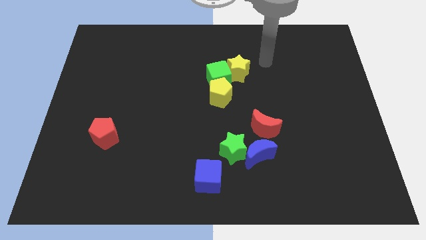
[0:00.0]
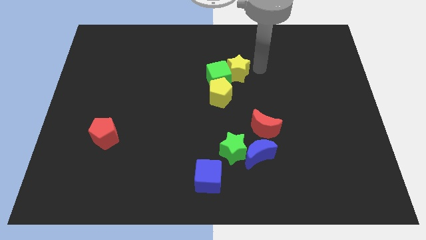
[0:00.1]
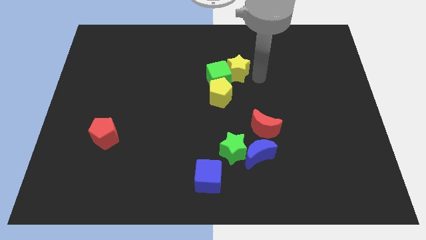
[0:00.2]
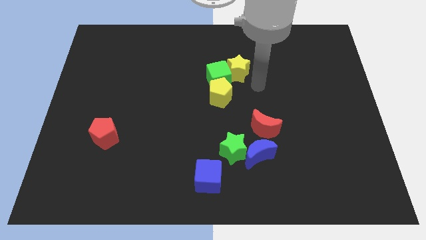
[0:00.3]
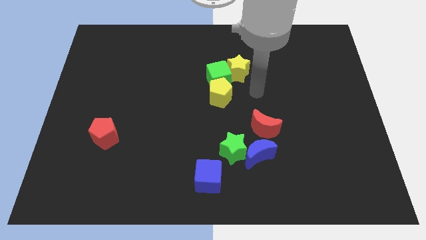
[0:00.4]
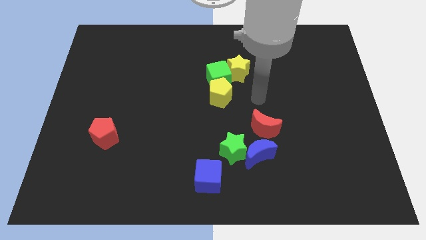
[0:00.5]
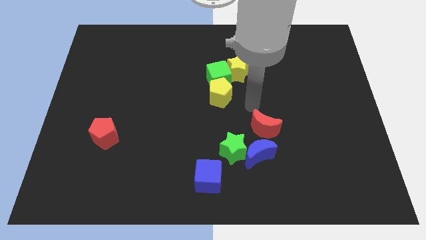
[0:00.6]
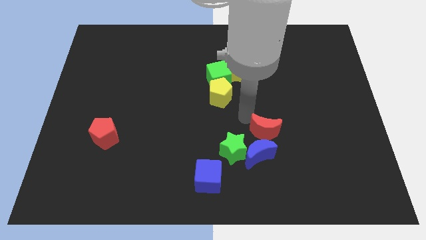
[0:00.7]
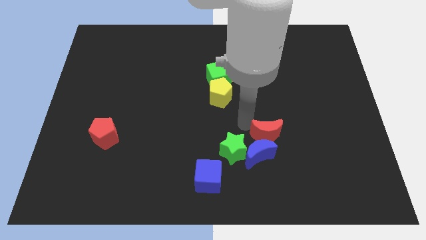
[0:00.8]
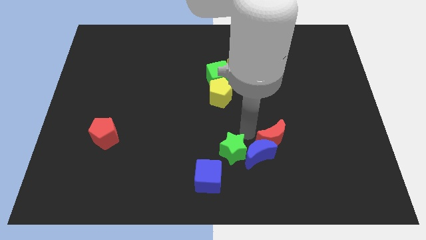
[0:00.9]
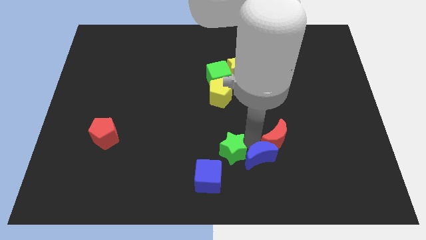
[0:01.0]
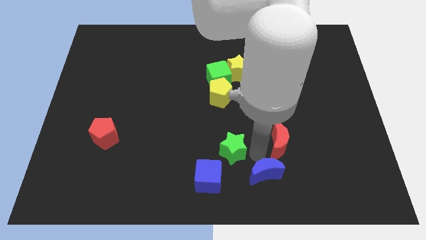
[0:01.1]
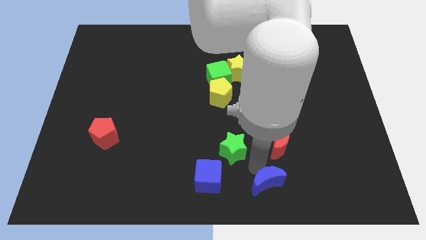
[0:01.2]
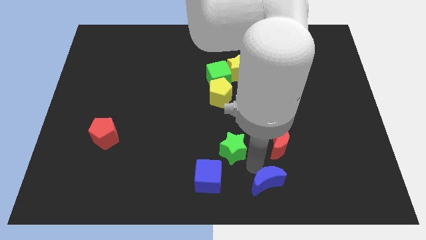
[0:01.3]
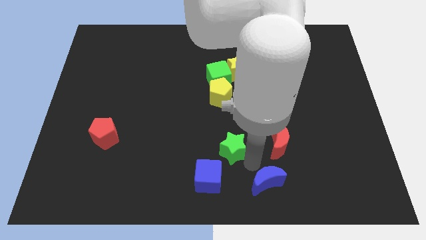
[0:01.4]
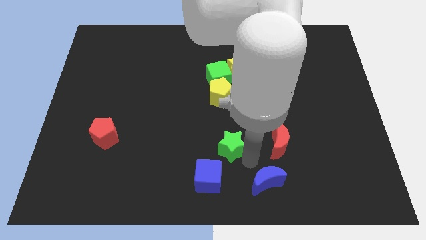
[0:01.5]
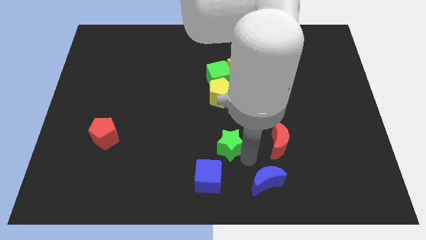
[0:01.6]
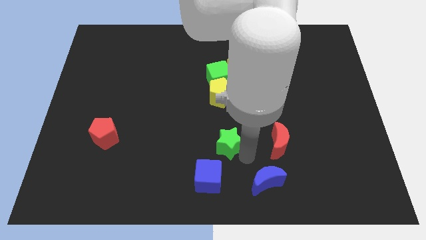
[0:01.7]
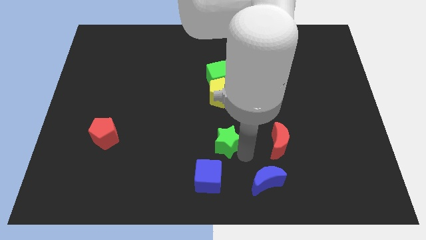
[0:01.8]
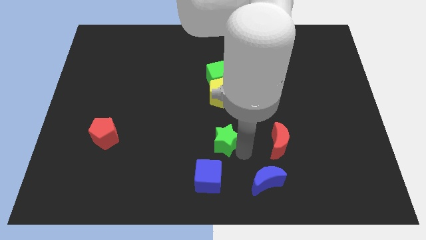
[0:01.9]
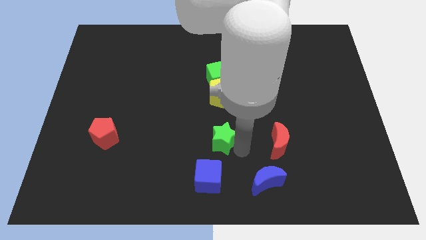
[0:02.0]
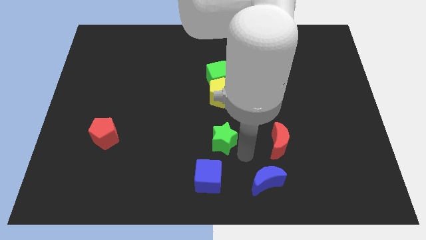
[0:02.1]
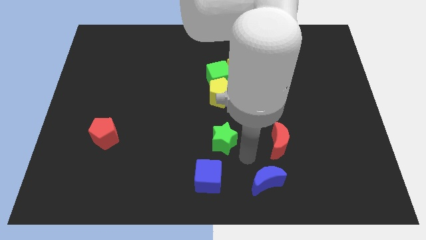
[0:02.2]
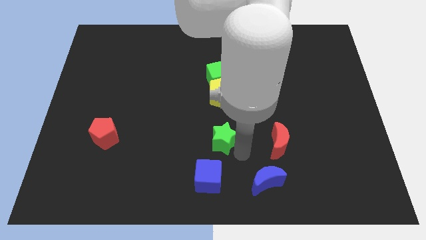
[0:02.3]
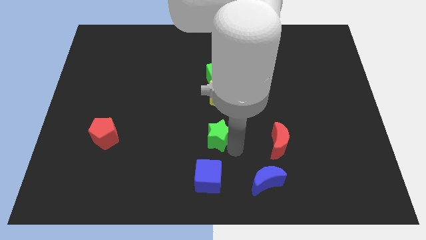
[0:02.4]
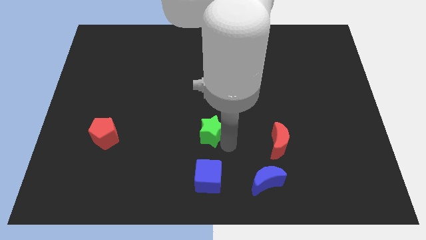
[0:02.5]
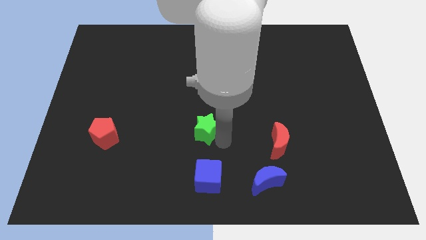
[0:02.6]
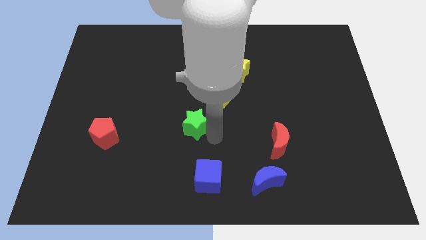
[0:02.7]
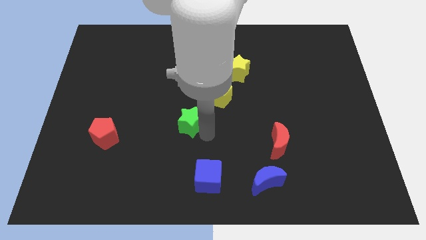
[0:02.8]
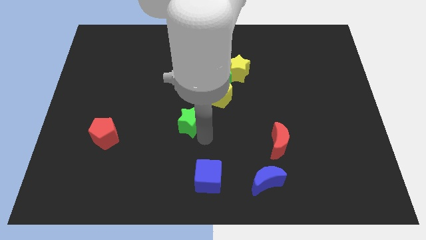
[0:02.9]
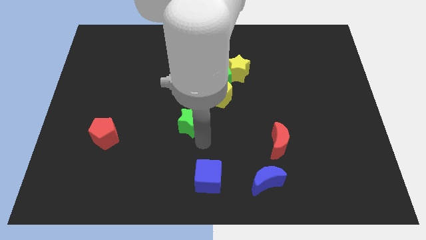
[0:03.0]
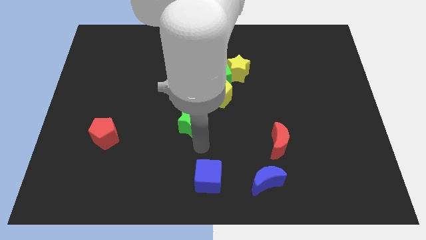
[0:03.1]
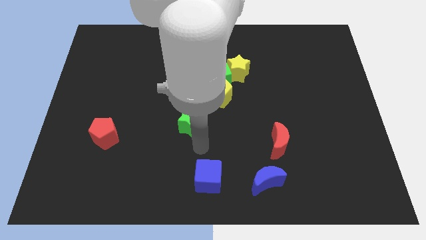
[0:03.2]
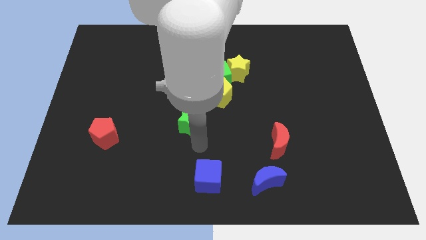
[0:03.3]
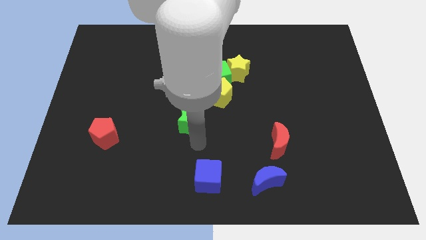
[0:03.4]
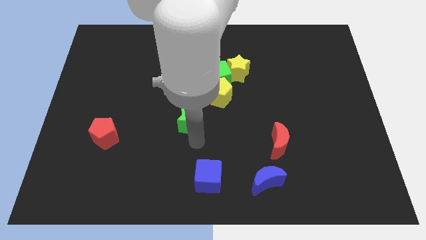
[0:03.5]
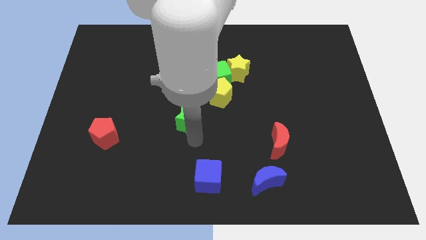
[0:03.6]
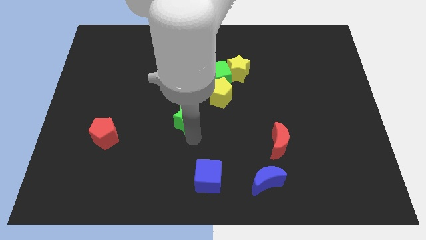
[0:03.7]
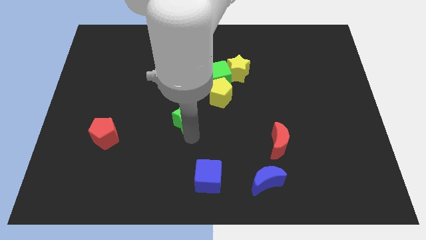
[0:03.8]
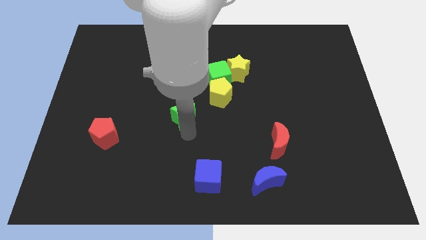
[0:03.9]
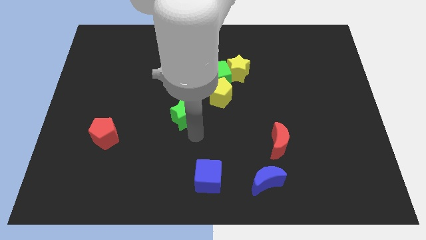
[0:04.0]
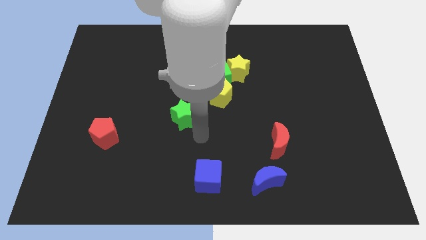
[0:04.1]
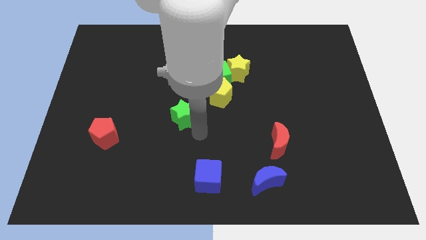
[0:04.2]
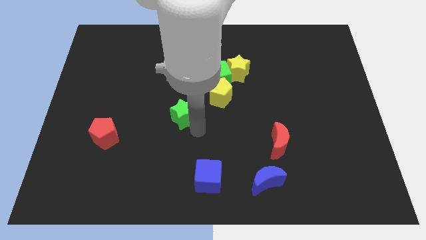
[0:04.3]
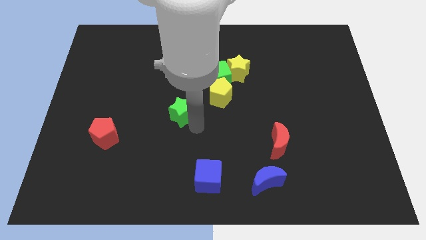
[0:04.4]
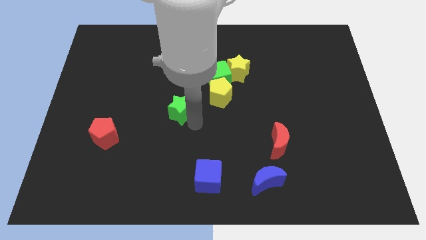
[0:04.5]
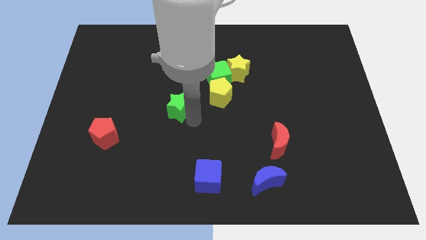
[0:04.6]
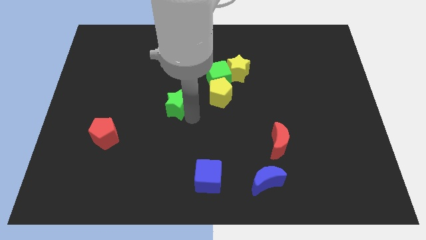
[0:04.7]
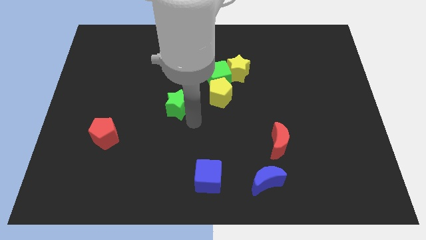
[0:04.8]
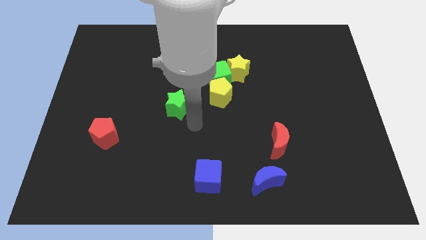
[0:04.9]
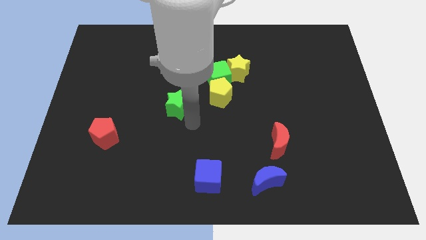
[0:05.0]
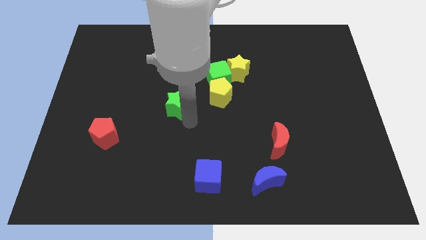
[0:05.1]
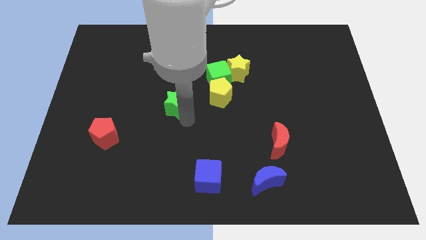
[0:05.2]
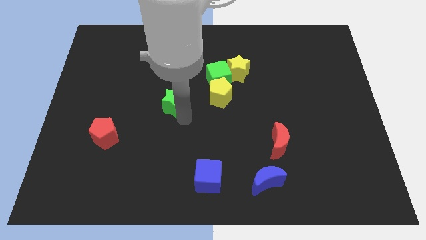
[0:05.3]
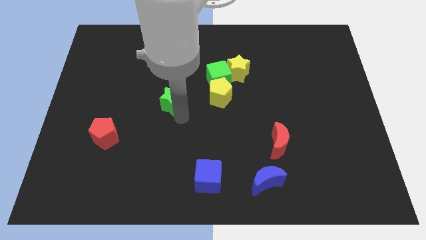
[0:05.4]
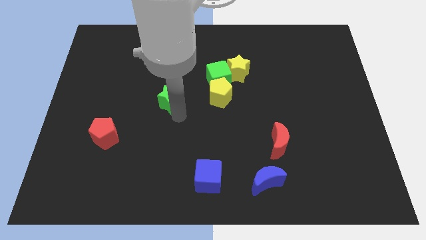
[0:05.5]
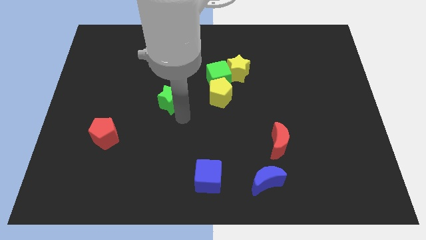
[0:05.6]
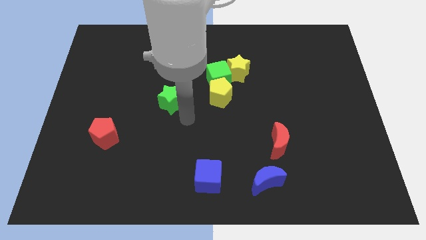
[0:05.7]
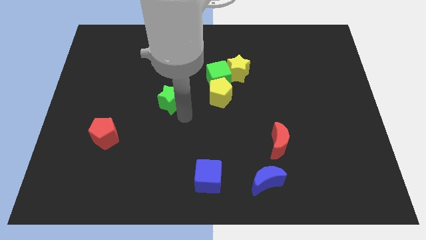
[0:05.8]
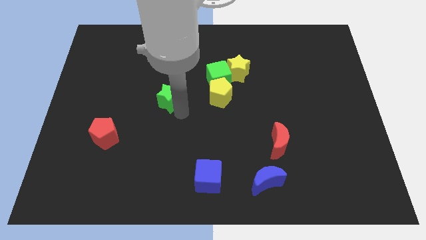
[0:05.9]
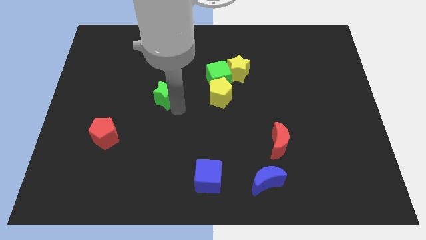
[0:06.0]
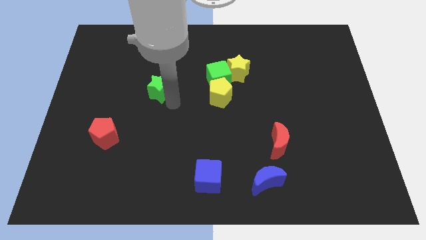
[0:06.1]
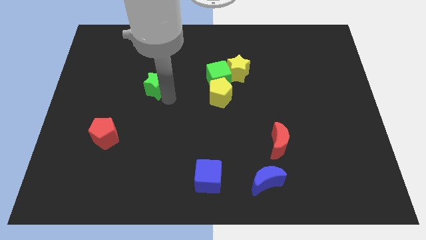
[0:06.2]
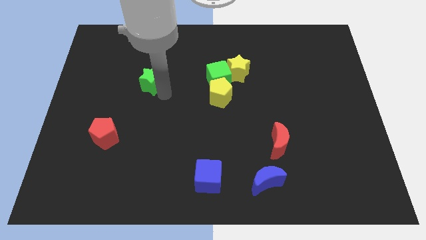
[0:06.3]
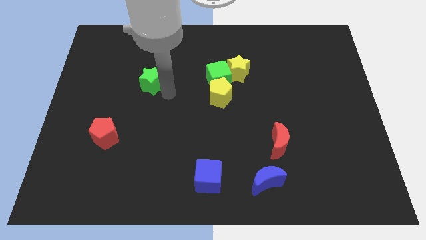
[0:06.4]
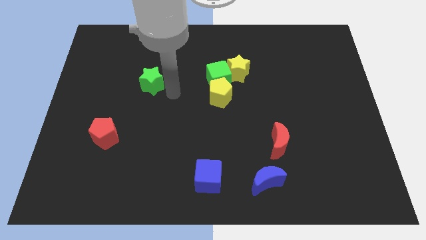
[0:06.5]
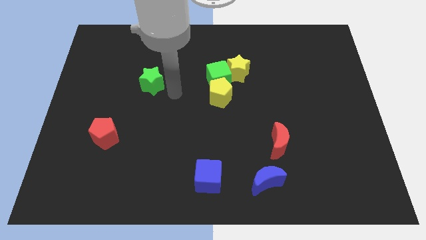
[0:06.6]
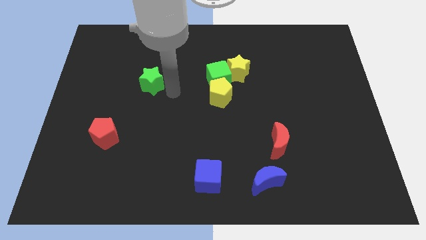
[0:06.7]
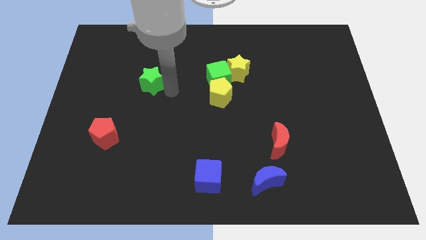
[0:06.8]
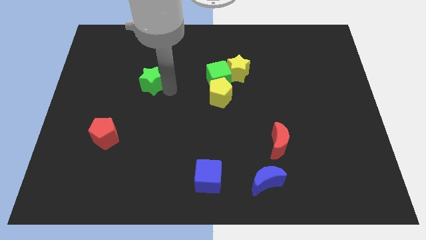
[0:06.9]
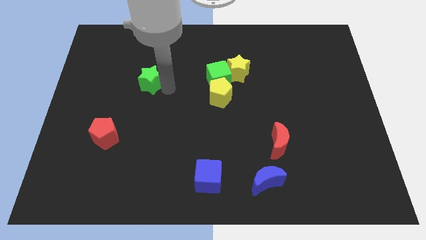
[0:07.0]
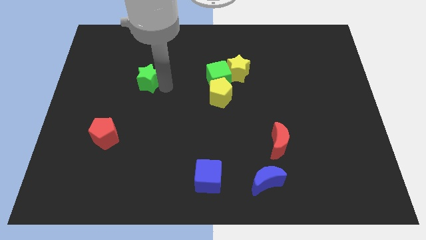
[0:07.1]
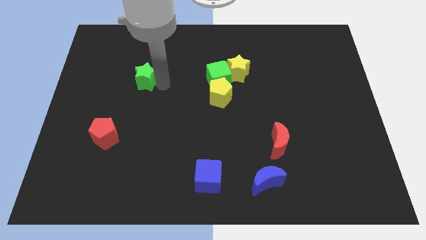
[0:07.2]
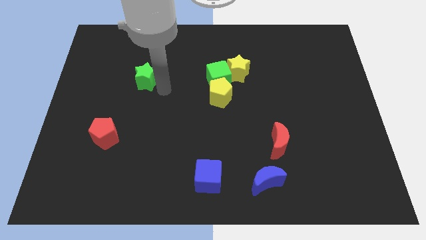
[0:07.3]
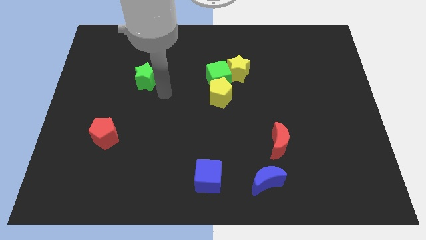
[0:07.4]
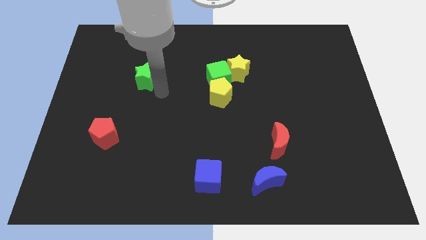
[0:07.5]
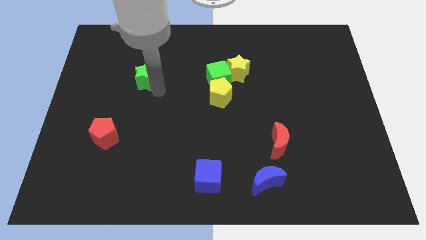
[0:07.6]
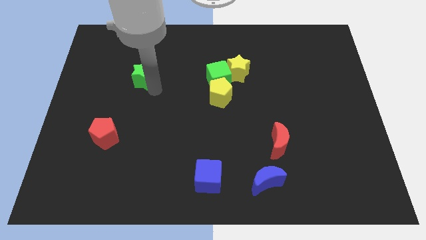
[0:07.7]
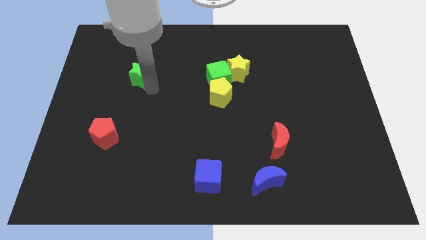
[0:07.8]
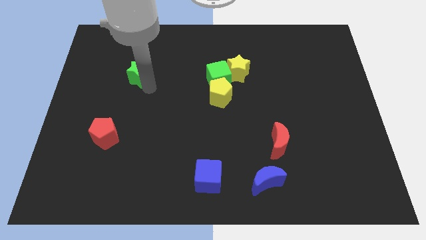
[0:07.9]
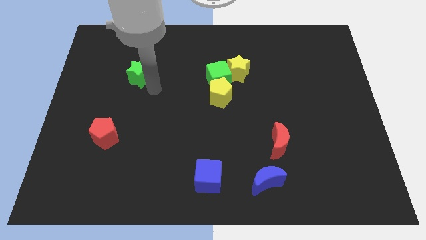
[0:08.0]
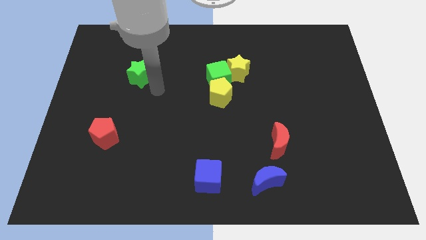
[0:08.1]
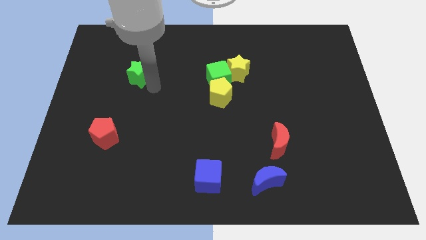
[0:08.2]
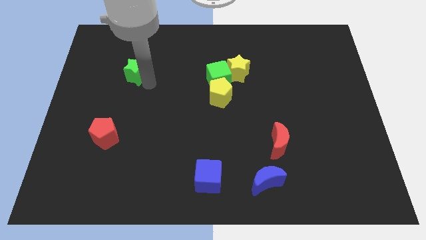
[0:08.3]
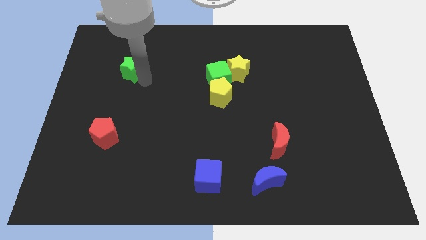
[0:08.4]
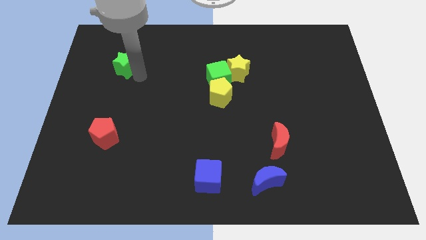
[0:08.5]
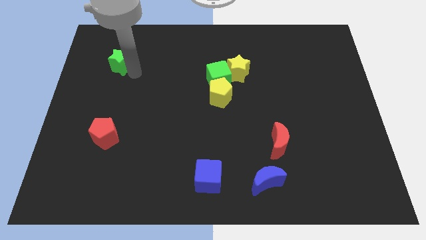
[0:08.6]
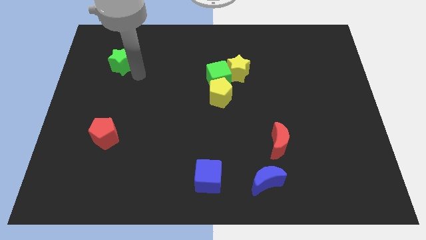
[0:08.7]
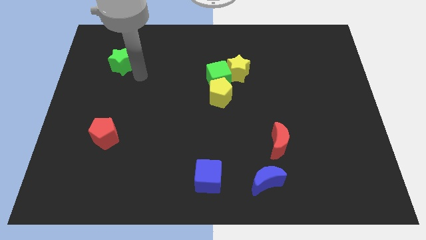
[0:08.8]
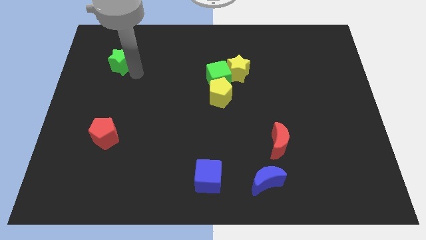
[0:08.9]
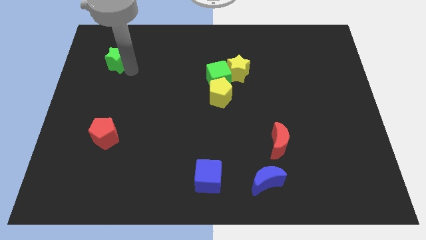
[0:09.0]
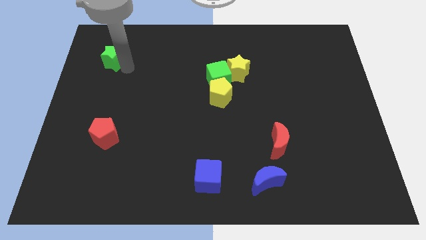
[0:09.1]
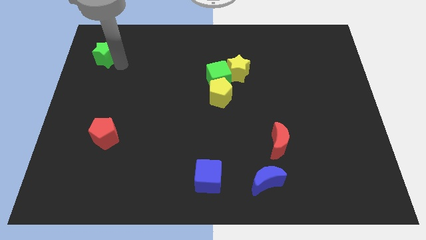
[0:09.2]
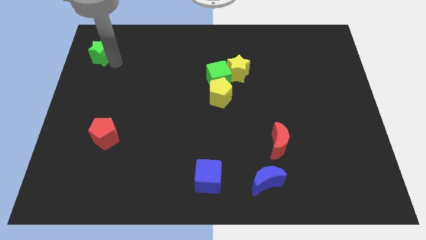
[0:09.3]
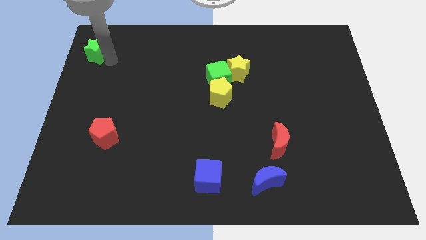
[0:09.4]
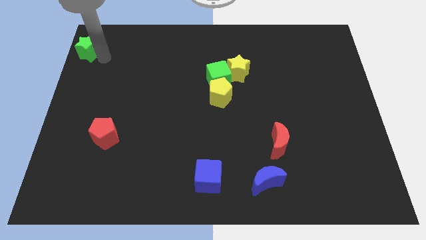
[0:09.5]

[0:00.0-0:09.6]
slide the green star to the top left of the board
